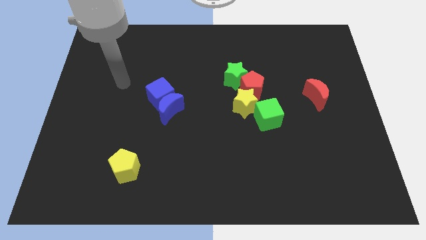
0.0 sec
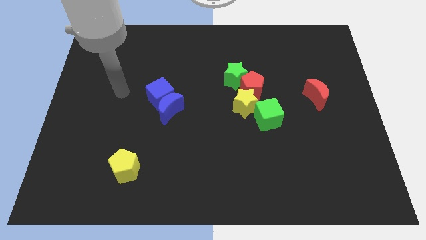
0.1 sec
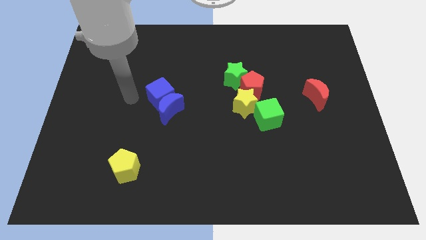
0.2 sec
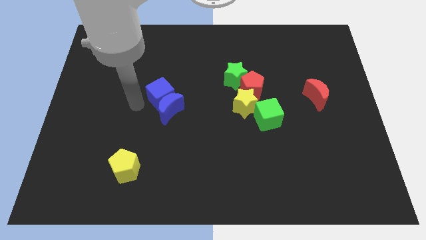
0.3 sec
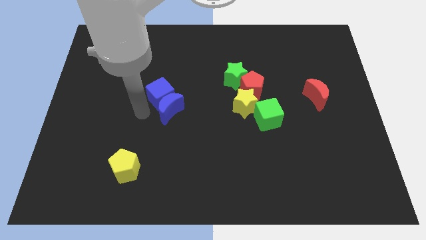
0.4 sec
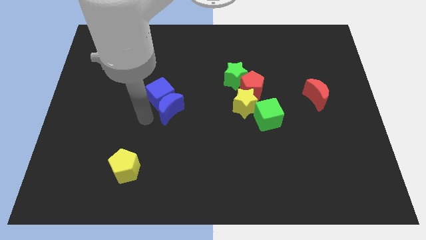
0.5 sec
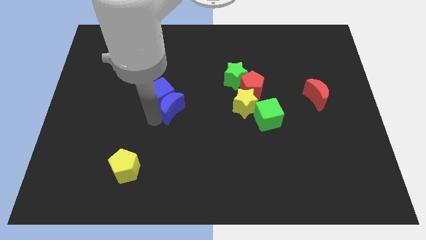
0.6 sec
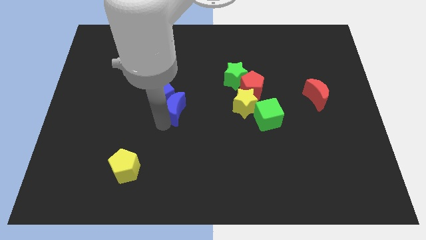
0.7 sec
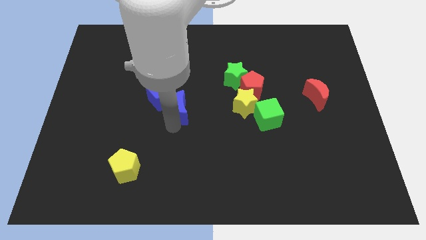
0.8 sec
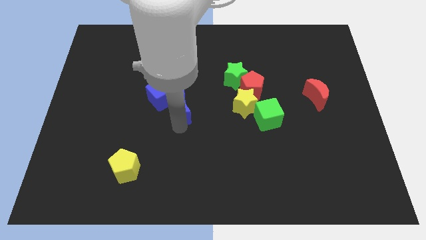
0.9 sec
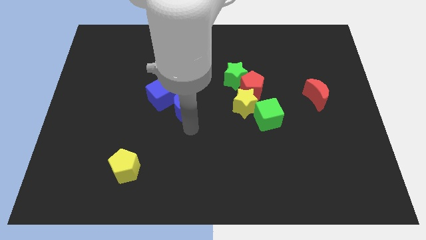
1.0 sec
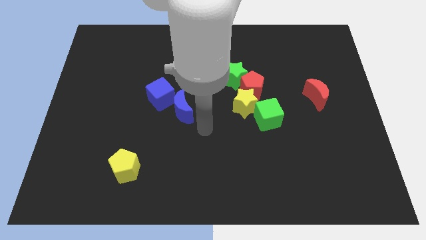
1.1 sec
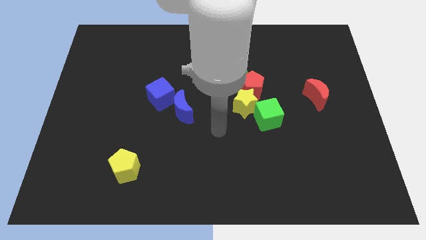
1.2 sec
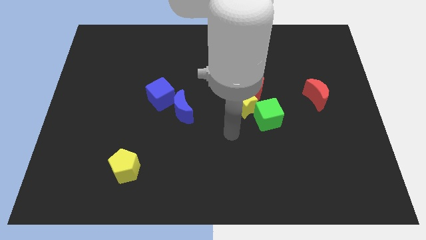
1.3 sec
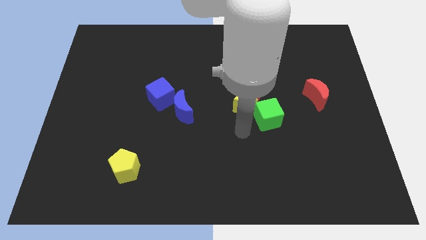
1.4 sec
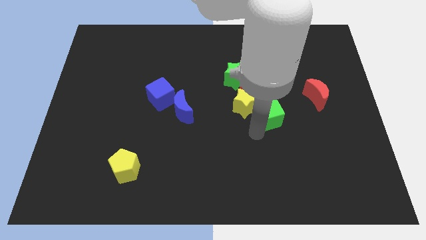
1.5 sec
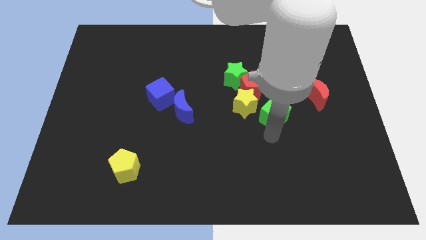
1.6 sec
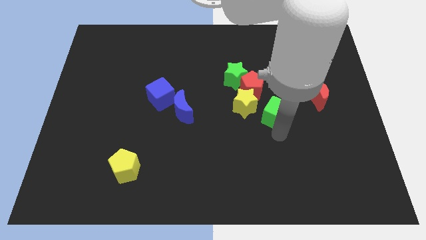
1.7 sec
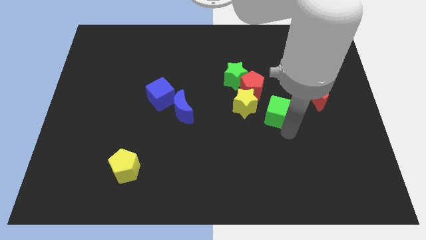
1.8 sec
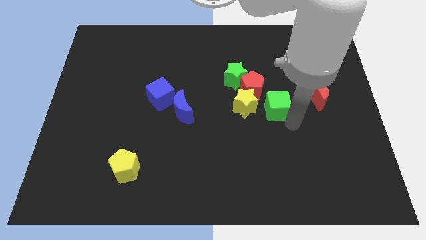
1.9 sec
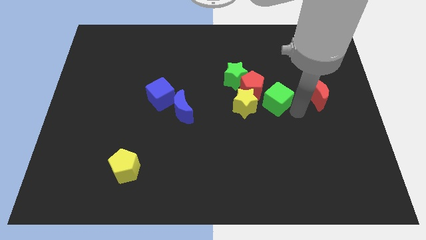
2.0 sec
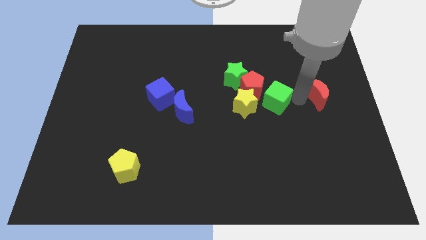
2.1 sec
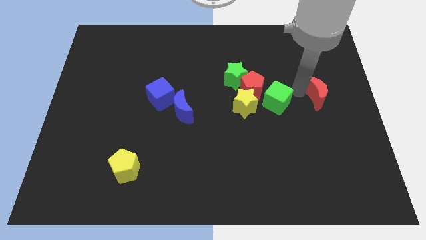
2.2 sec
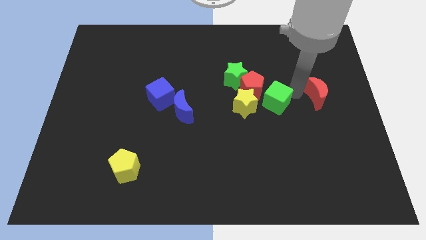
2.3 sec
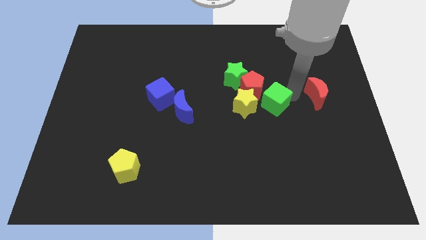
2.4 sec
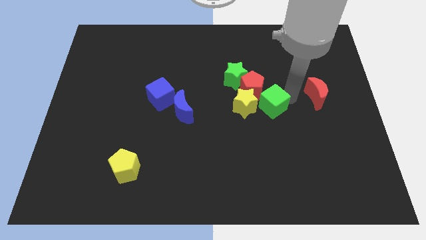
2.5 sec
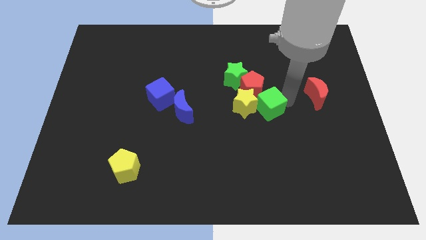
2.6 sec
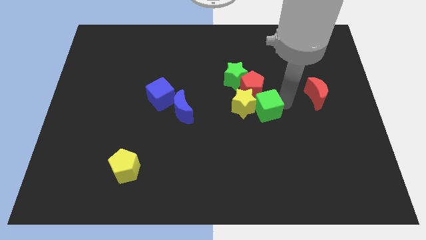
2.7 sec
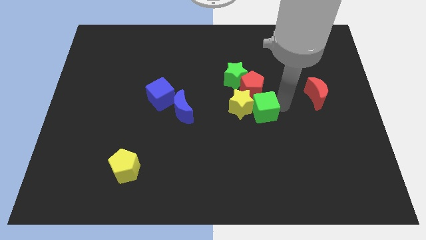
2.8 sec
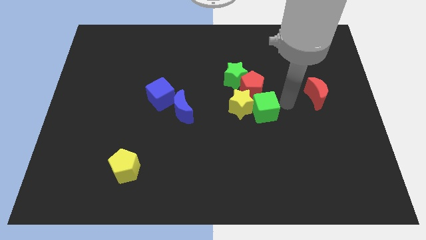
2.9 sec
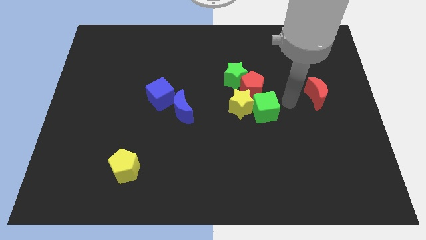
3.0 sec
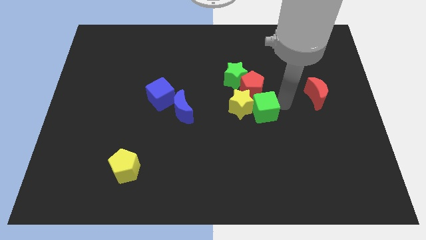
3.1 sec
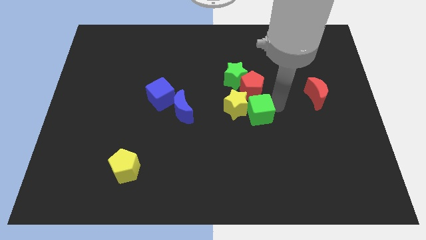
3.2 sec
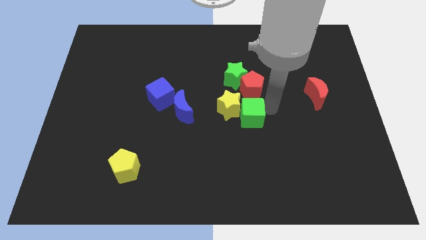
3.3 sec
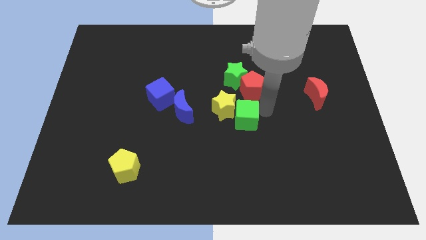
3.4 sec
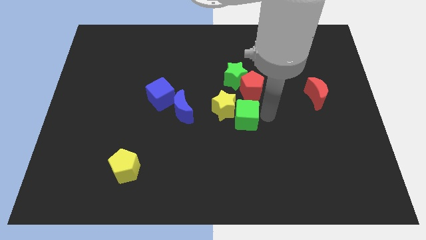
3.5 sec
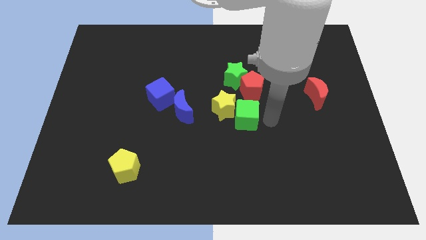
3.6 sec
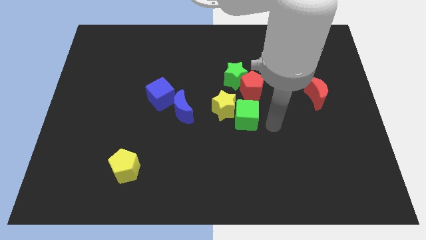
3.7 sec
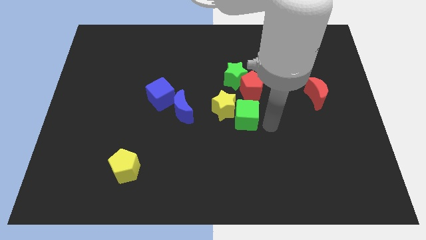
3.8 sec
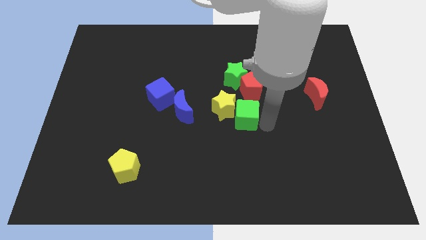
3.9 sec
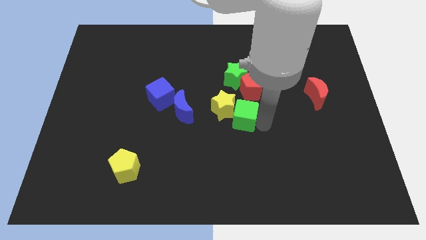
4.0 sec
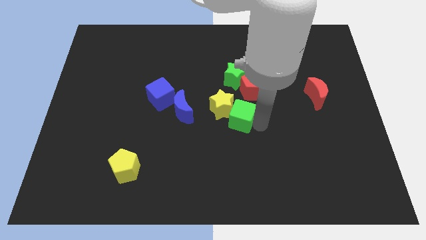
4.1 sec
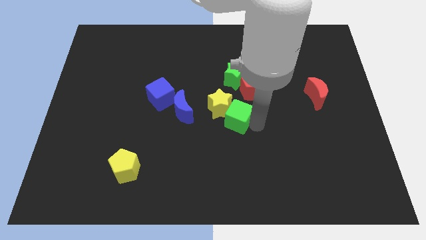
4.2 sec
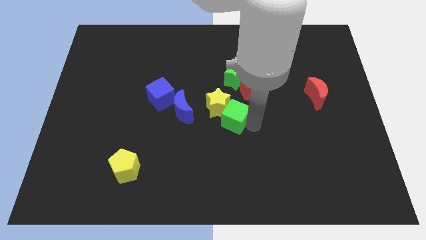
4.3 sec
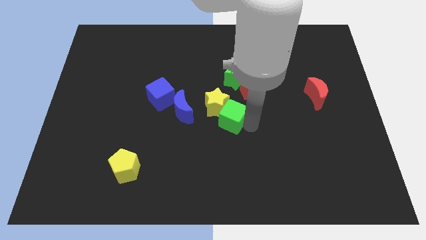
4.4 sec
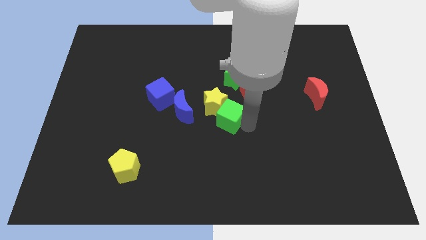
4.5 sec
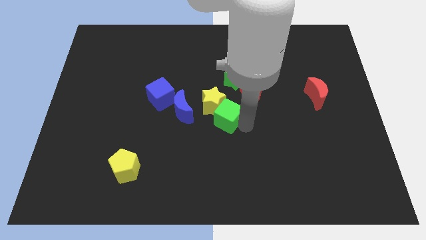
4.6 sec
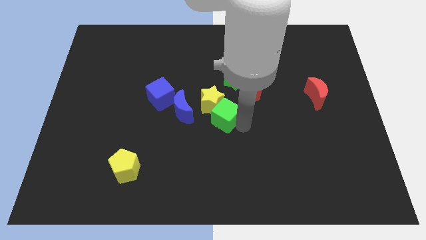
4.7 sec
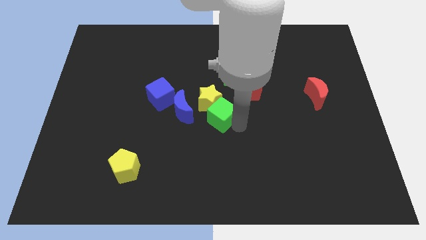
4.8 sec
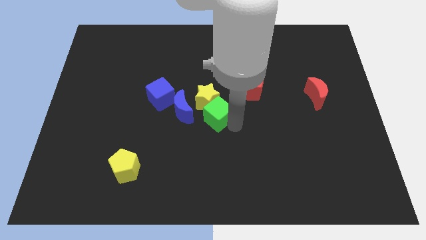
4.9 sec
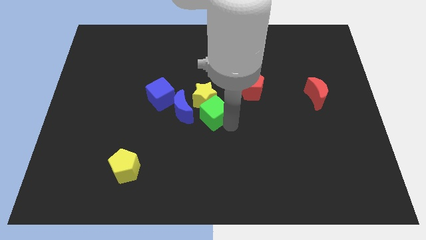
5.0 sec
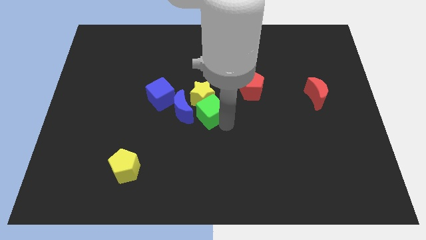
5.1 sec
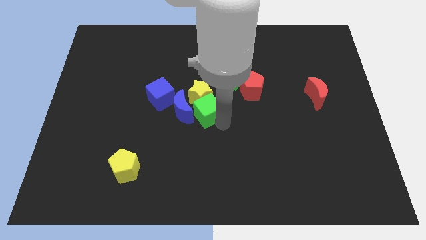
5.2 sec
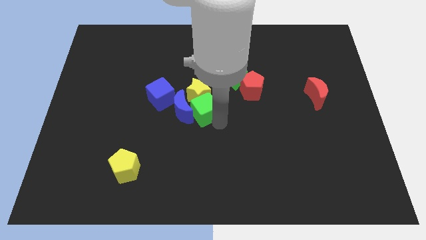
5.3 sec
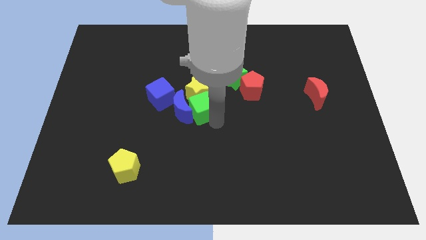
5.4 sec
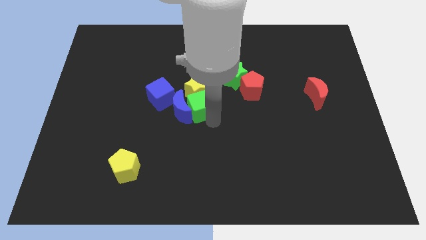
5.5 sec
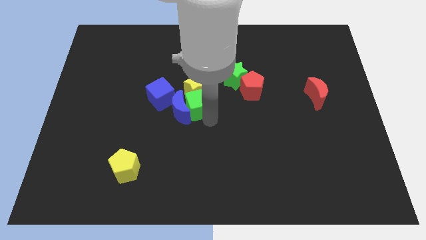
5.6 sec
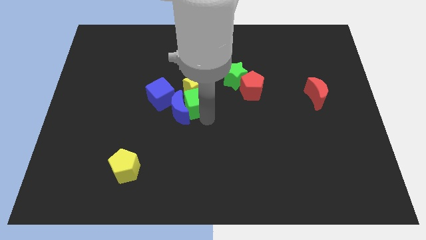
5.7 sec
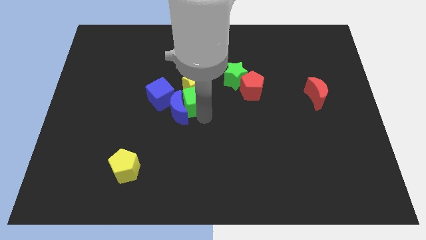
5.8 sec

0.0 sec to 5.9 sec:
slide the green cube to the left side of the red pentagon

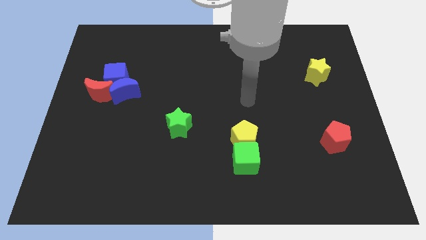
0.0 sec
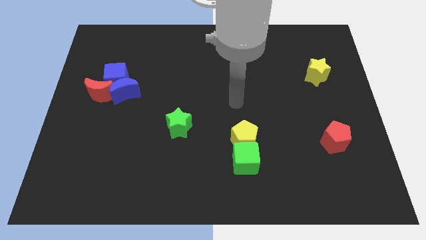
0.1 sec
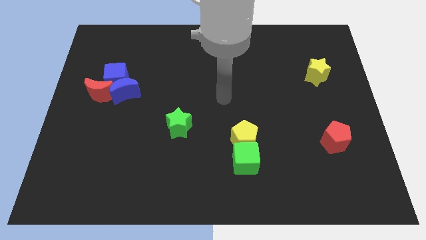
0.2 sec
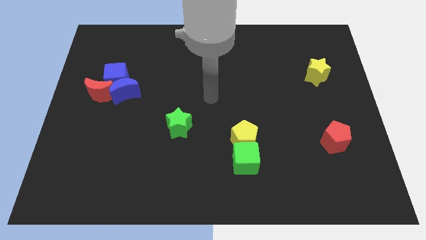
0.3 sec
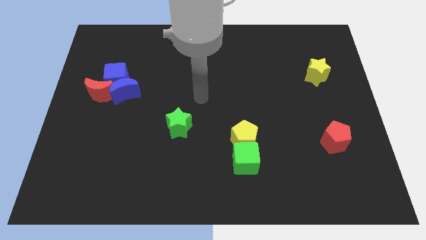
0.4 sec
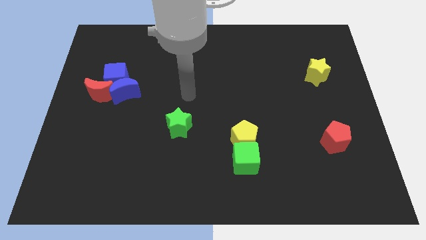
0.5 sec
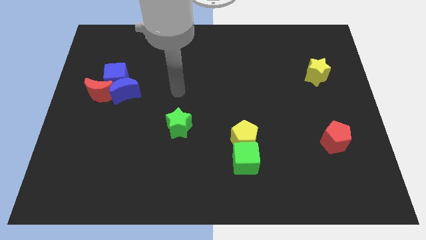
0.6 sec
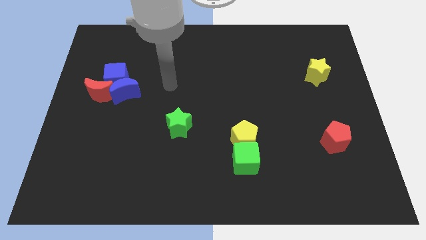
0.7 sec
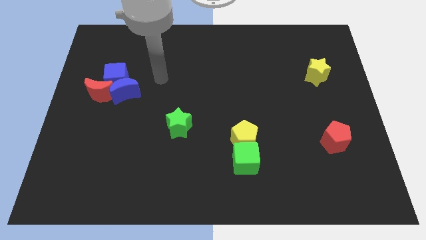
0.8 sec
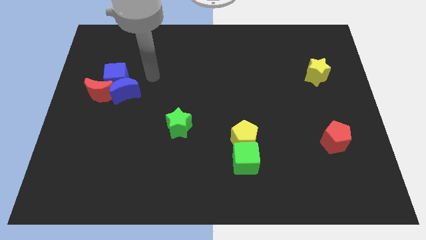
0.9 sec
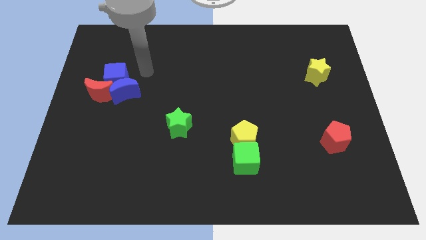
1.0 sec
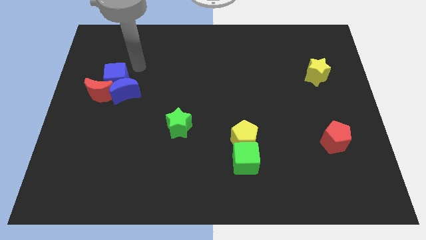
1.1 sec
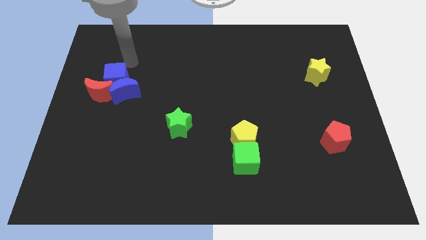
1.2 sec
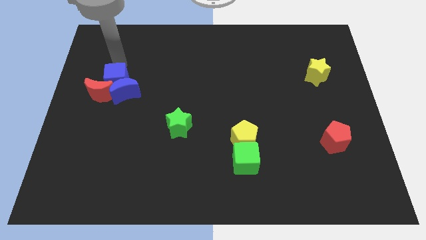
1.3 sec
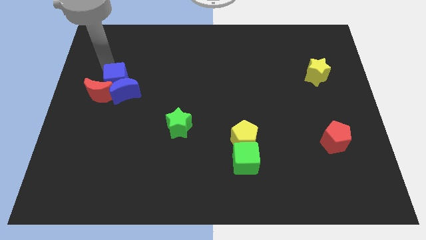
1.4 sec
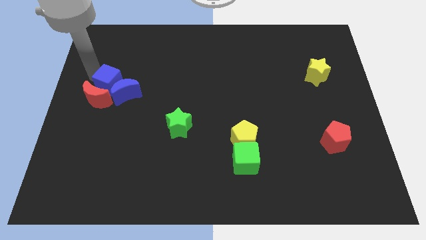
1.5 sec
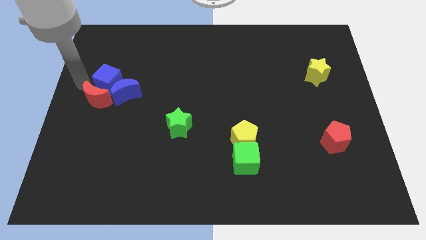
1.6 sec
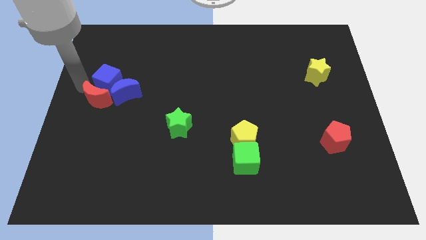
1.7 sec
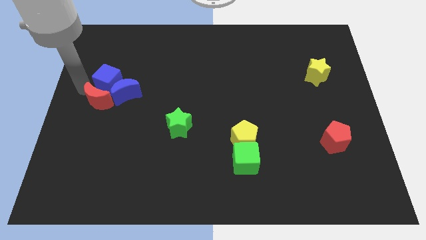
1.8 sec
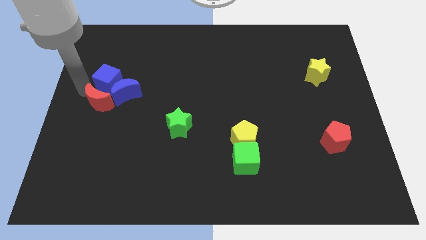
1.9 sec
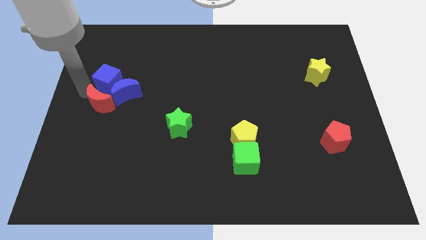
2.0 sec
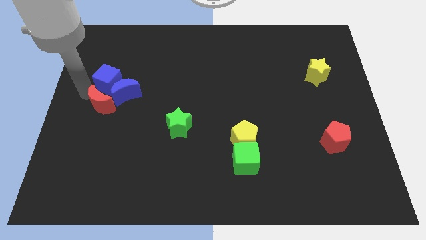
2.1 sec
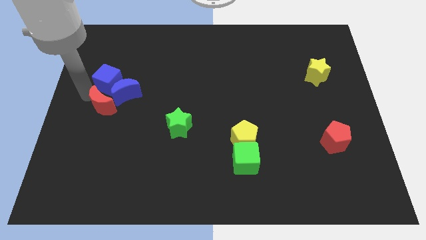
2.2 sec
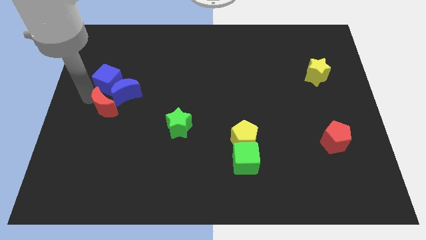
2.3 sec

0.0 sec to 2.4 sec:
move the red moon to the bottom of the blue moon
